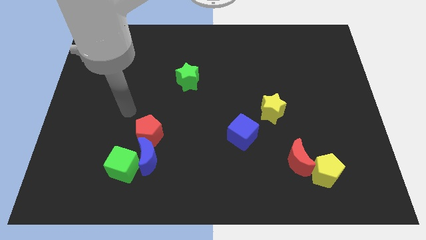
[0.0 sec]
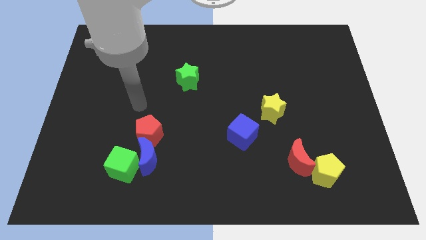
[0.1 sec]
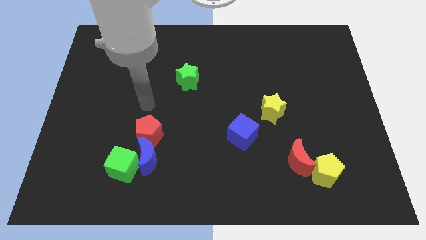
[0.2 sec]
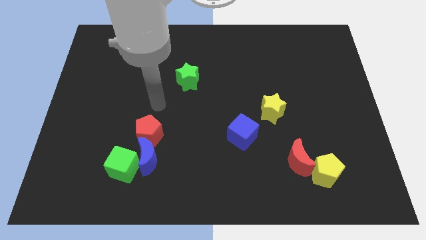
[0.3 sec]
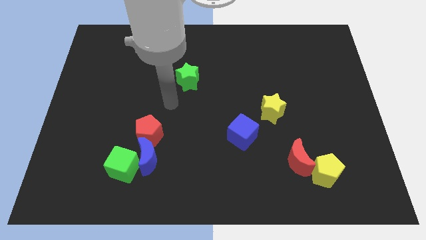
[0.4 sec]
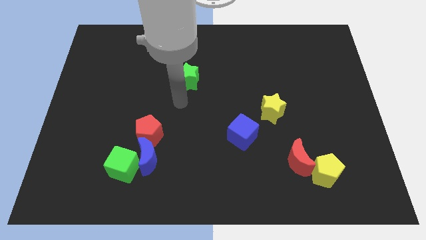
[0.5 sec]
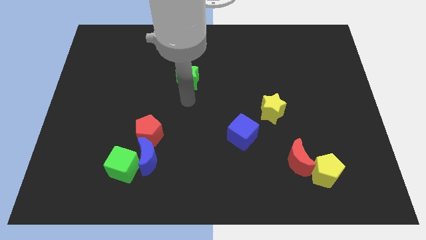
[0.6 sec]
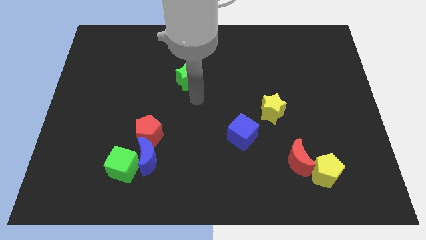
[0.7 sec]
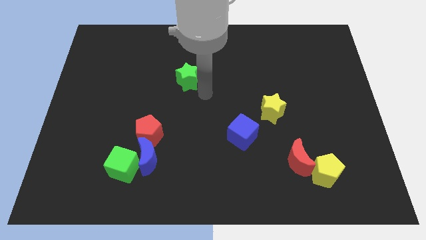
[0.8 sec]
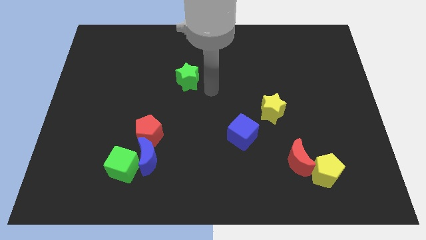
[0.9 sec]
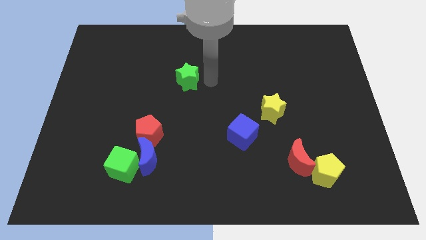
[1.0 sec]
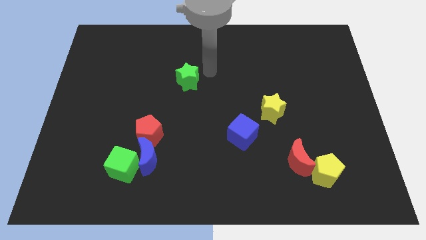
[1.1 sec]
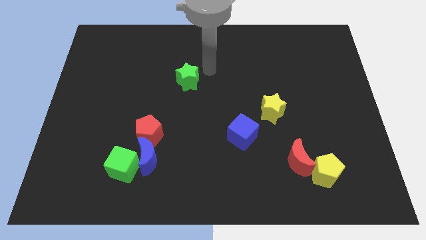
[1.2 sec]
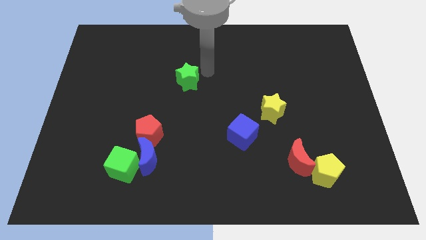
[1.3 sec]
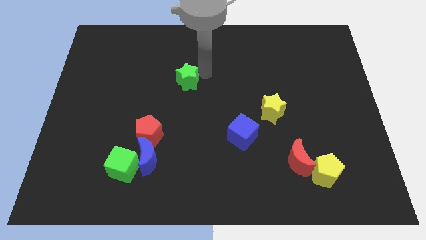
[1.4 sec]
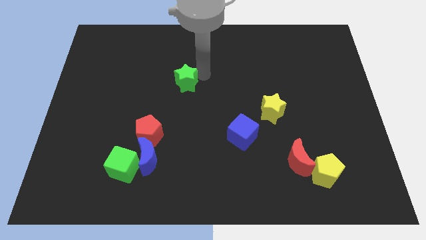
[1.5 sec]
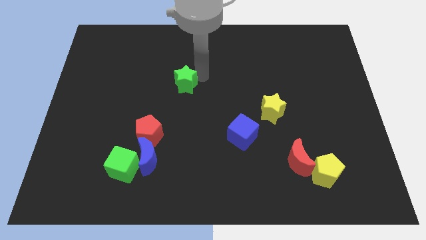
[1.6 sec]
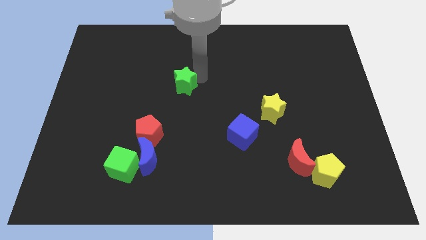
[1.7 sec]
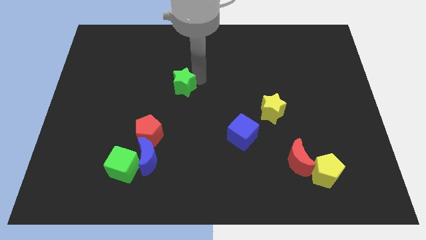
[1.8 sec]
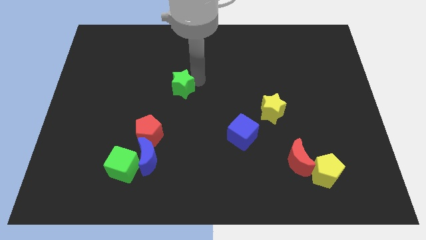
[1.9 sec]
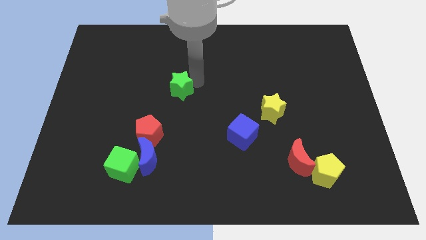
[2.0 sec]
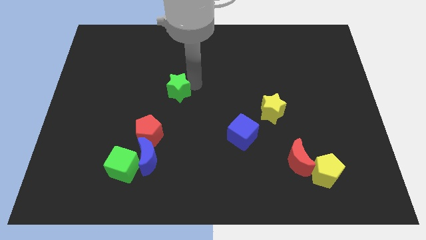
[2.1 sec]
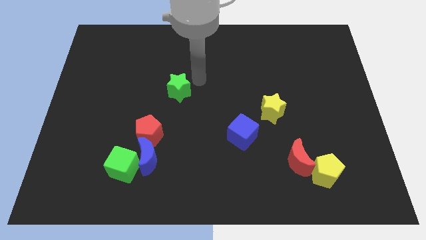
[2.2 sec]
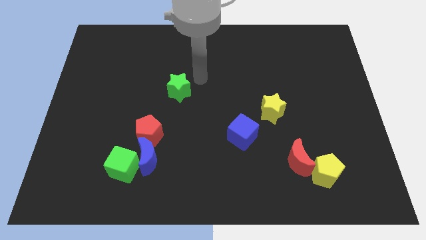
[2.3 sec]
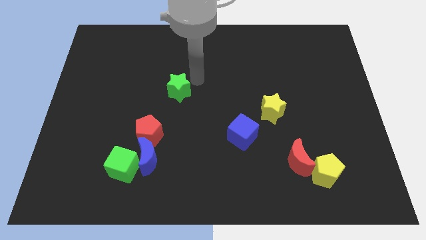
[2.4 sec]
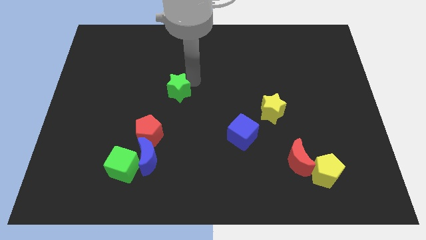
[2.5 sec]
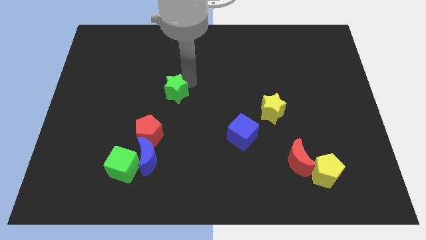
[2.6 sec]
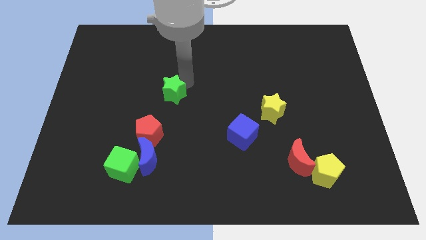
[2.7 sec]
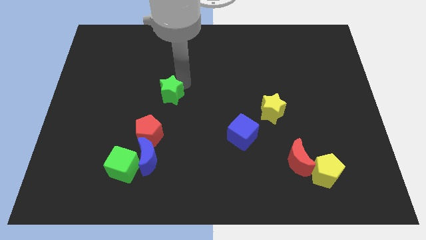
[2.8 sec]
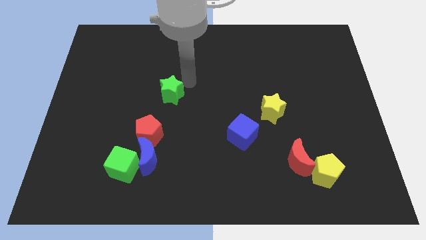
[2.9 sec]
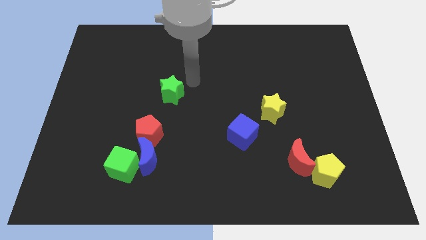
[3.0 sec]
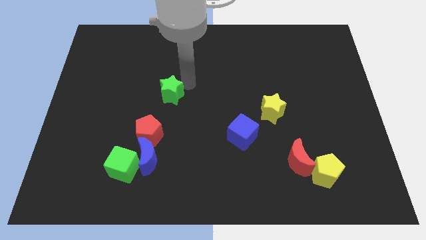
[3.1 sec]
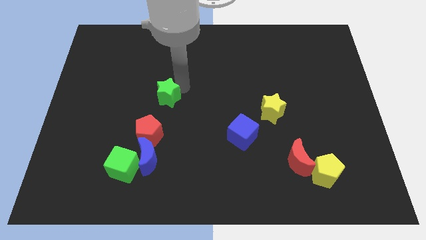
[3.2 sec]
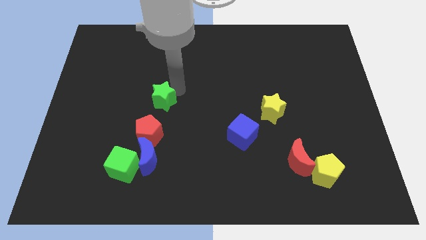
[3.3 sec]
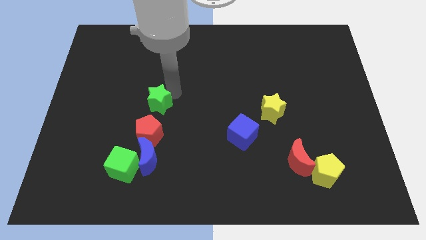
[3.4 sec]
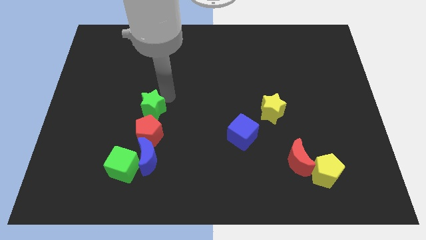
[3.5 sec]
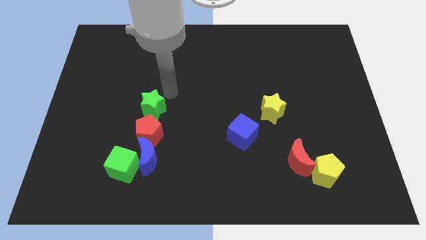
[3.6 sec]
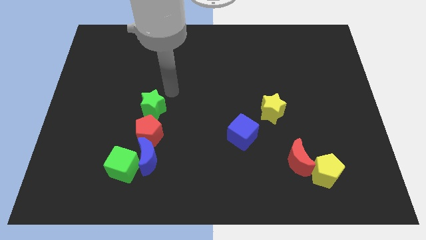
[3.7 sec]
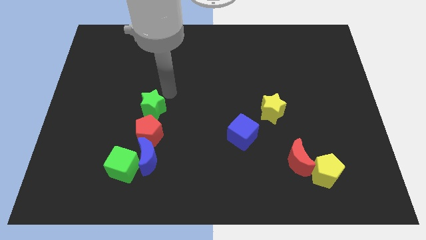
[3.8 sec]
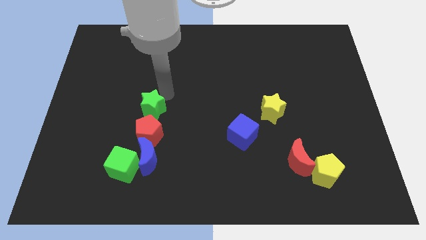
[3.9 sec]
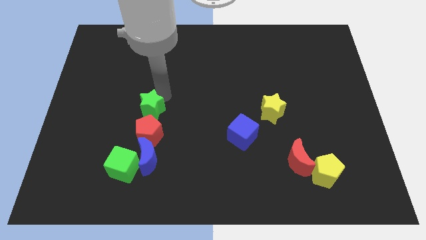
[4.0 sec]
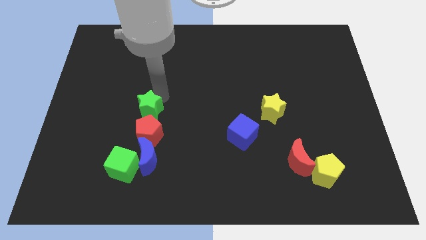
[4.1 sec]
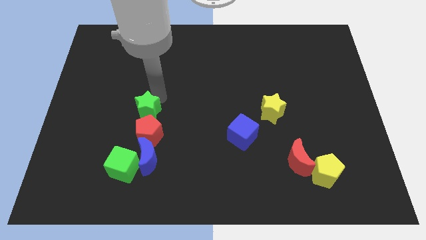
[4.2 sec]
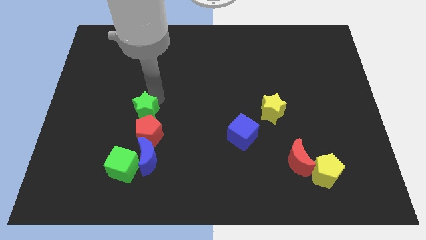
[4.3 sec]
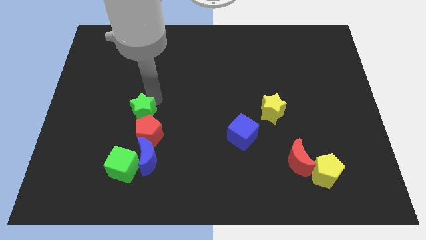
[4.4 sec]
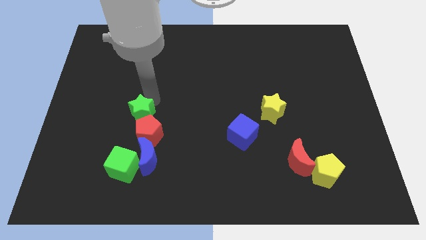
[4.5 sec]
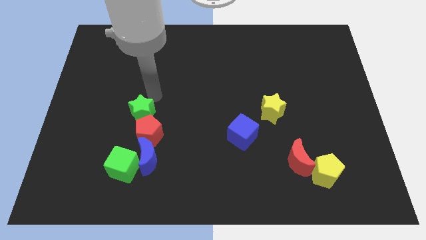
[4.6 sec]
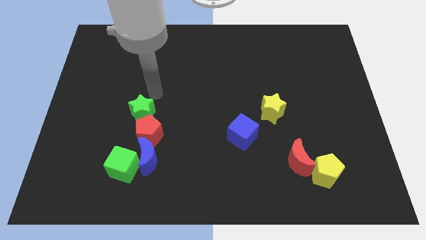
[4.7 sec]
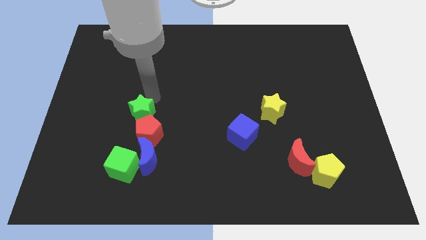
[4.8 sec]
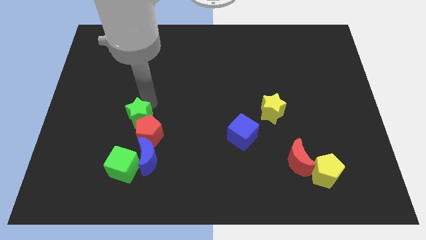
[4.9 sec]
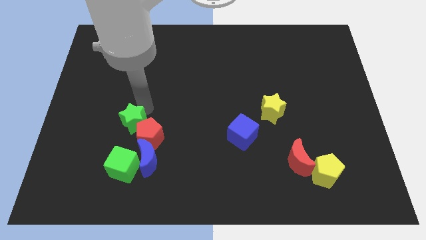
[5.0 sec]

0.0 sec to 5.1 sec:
push the green star to the top left of the blue moon

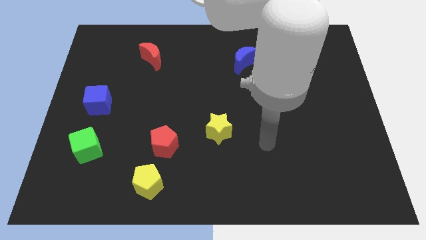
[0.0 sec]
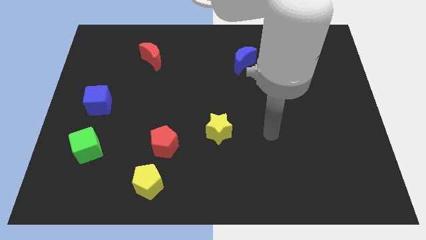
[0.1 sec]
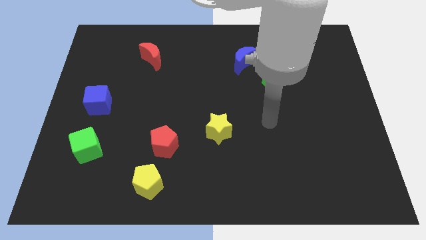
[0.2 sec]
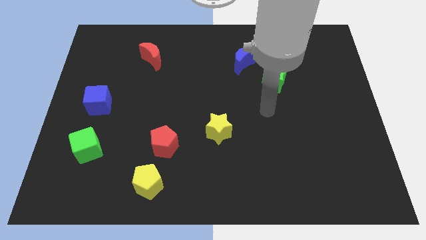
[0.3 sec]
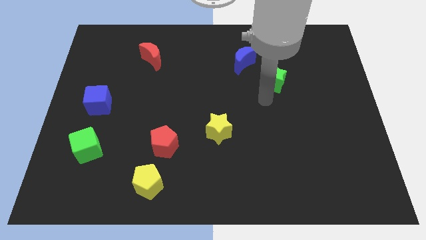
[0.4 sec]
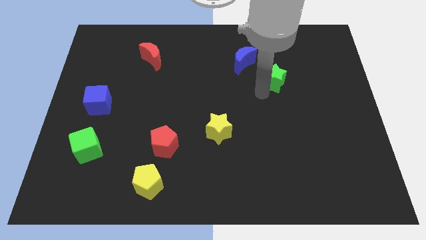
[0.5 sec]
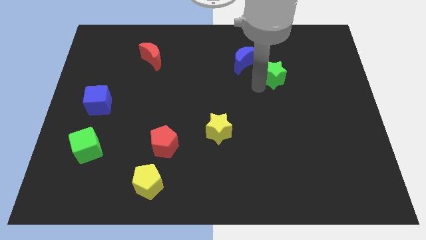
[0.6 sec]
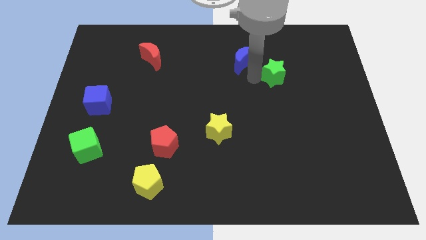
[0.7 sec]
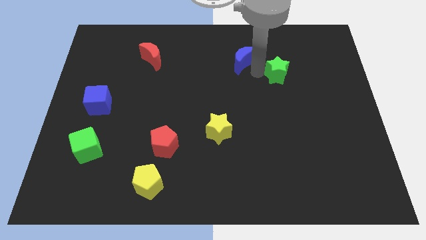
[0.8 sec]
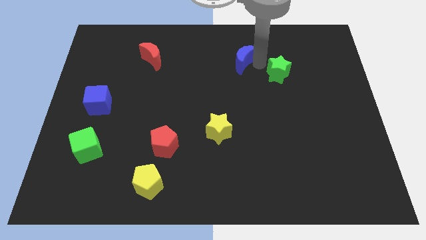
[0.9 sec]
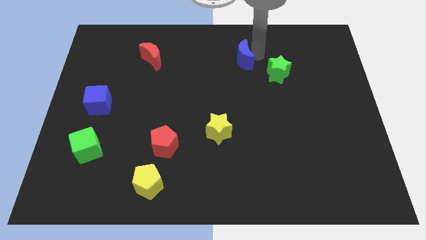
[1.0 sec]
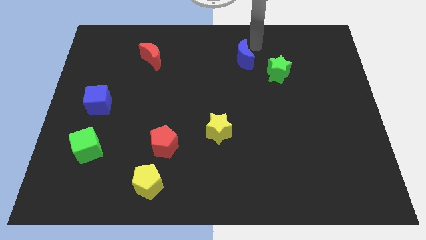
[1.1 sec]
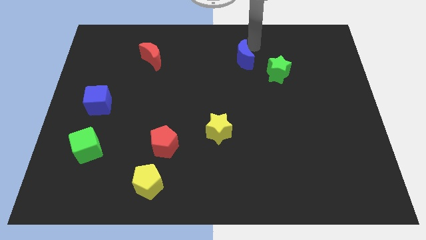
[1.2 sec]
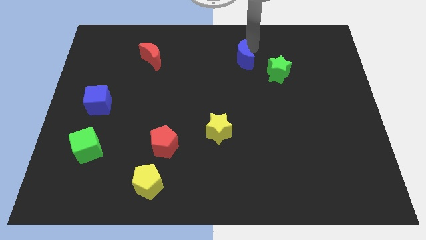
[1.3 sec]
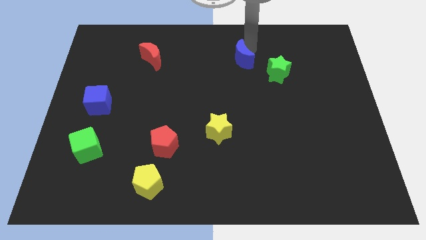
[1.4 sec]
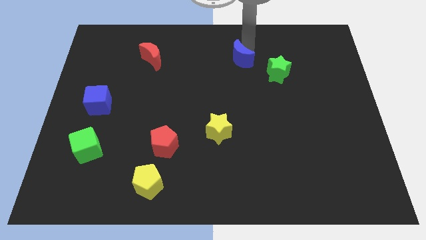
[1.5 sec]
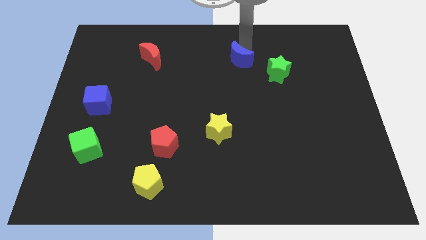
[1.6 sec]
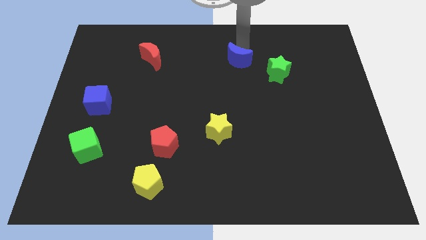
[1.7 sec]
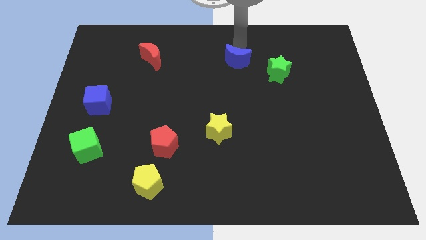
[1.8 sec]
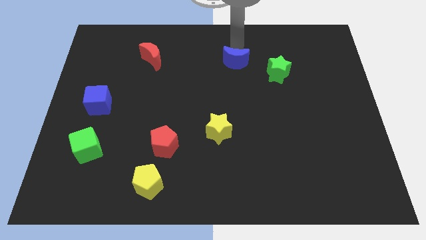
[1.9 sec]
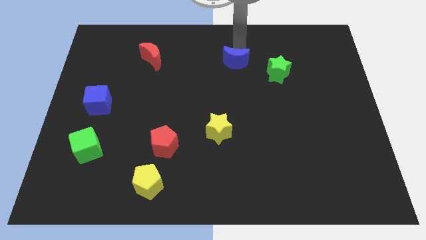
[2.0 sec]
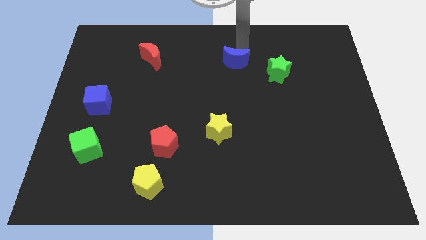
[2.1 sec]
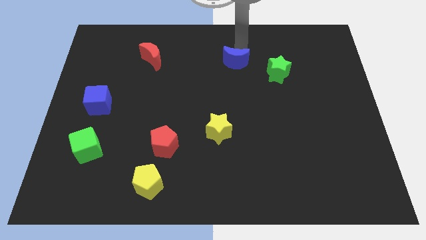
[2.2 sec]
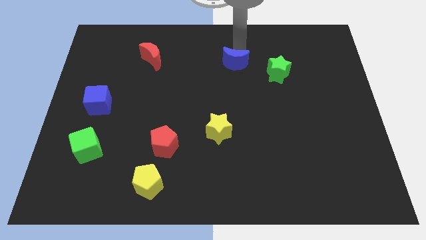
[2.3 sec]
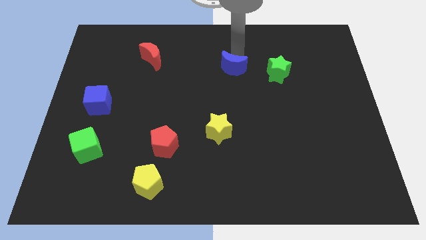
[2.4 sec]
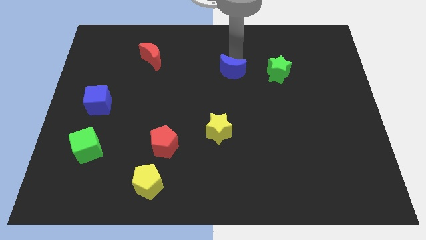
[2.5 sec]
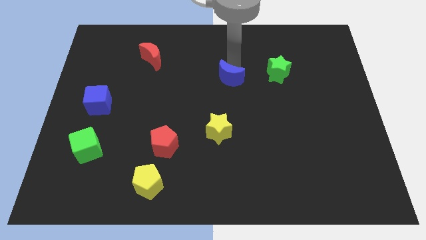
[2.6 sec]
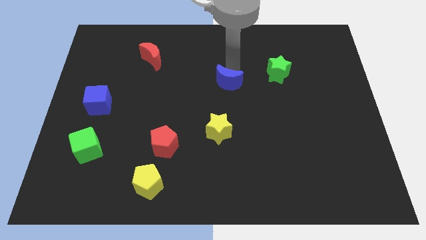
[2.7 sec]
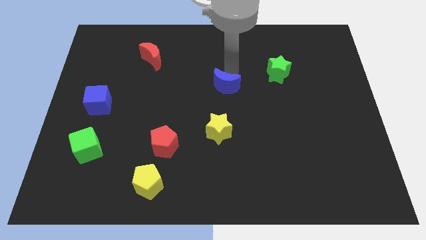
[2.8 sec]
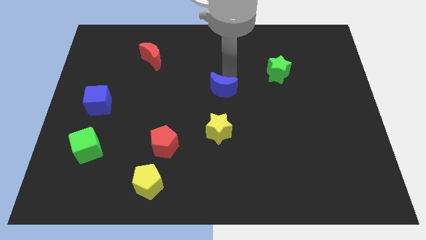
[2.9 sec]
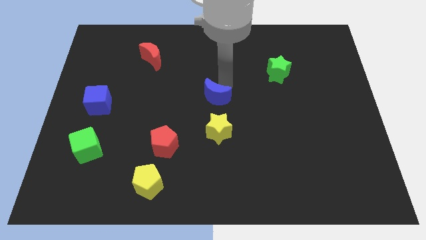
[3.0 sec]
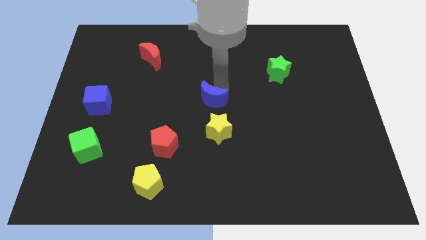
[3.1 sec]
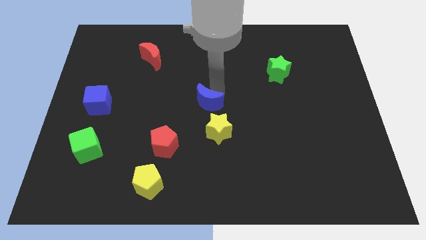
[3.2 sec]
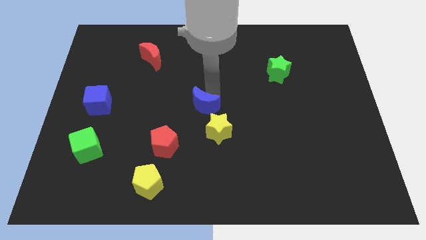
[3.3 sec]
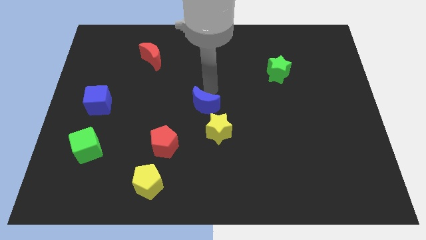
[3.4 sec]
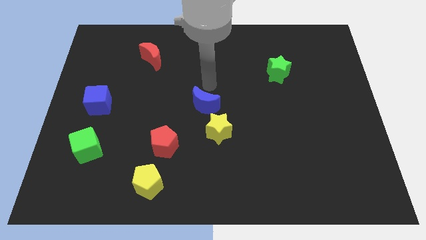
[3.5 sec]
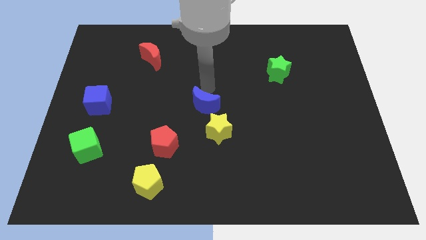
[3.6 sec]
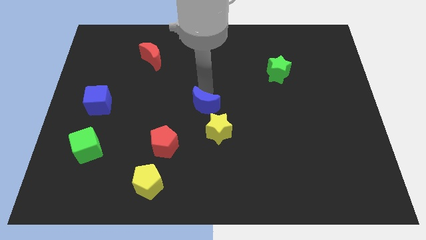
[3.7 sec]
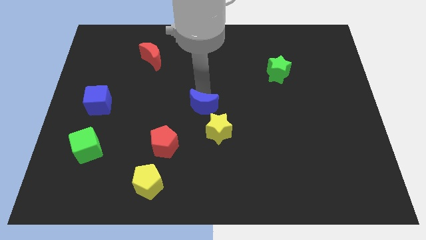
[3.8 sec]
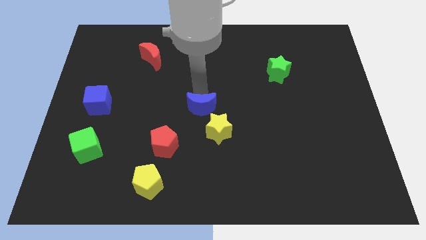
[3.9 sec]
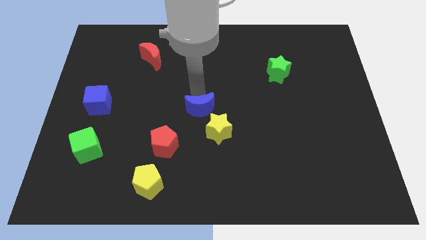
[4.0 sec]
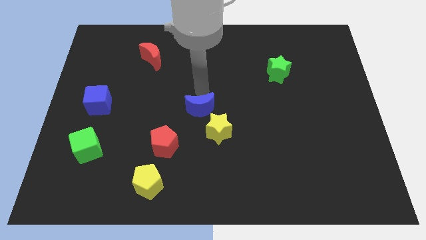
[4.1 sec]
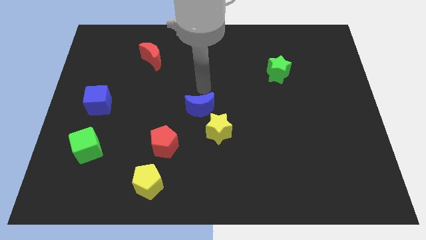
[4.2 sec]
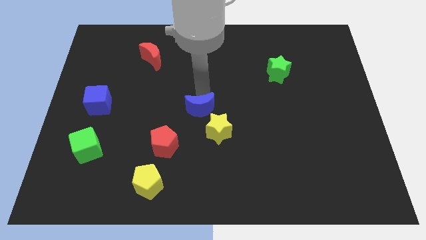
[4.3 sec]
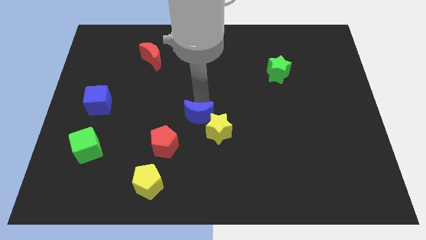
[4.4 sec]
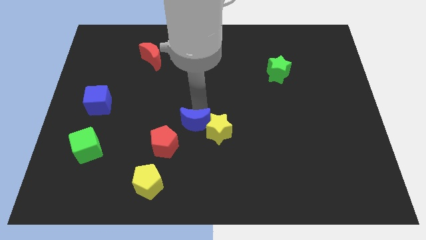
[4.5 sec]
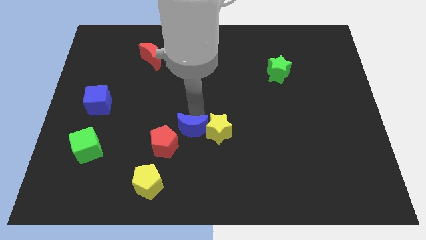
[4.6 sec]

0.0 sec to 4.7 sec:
slide the blue moon diagonally down and to the left of the yellow star
